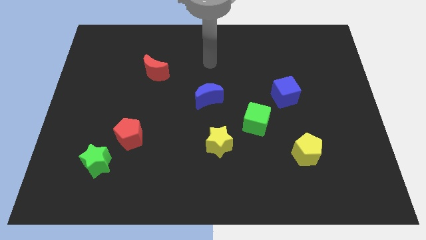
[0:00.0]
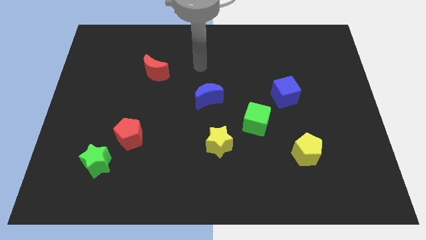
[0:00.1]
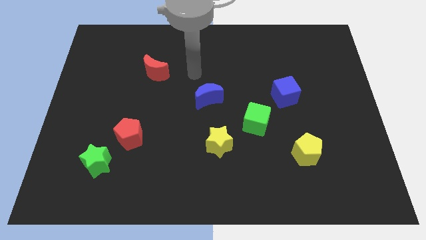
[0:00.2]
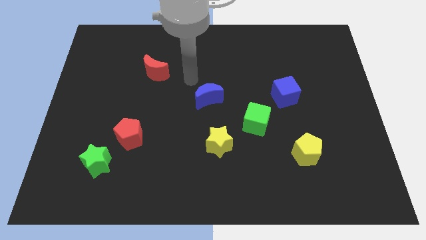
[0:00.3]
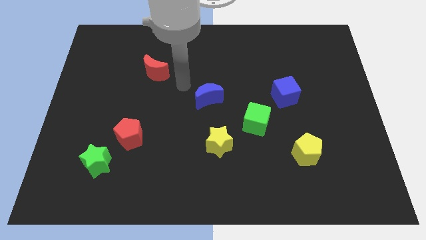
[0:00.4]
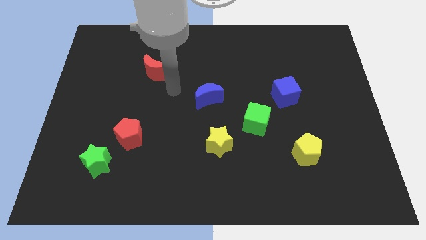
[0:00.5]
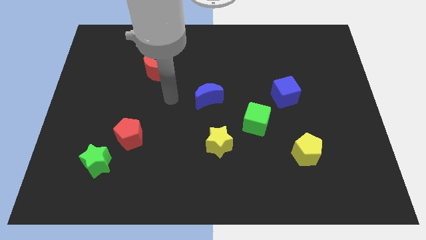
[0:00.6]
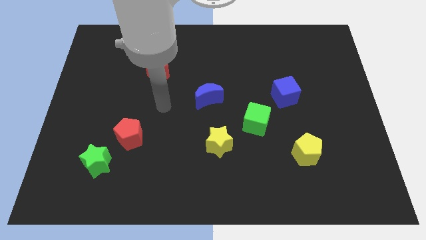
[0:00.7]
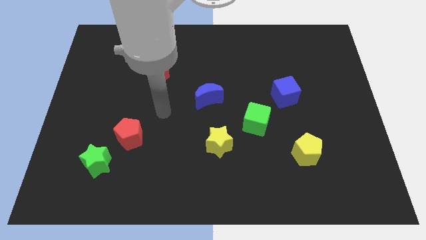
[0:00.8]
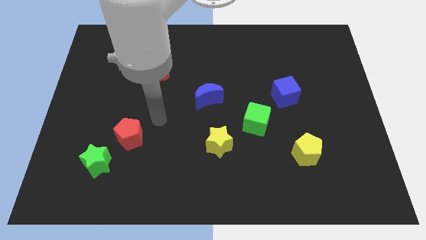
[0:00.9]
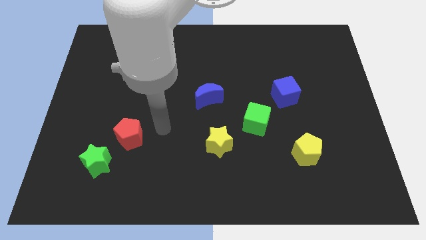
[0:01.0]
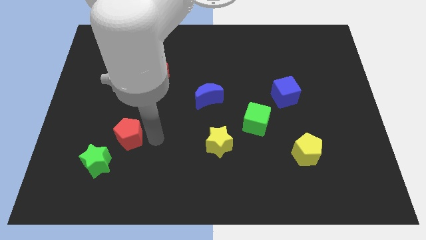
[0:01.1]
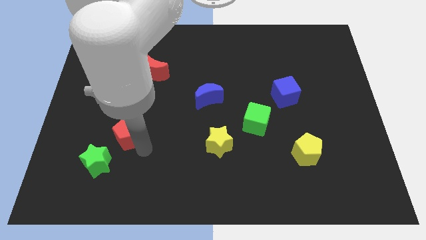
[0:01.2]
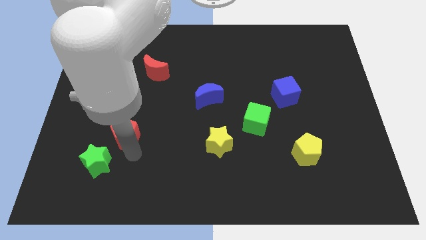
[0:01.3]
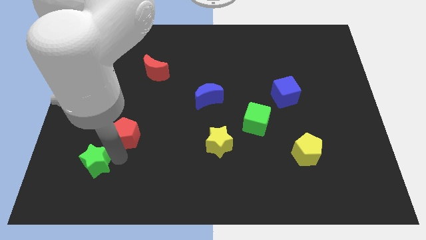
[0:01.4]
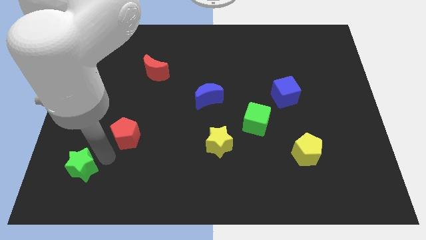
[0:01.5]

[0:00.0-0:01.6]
pull the red pentagon apart from the green star

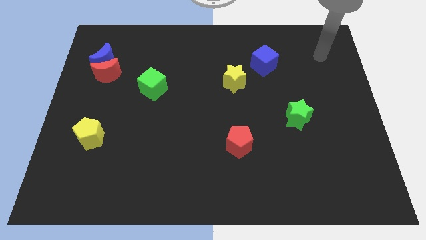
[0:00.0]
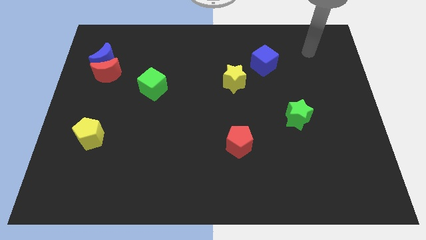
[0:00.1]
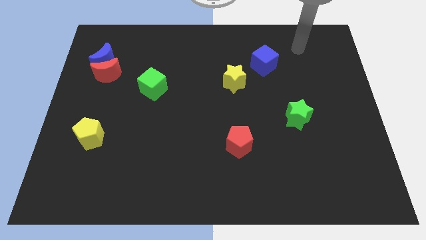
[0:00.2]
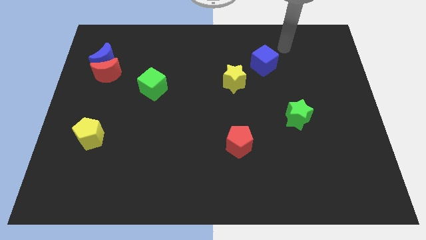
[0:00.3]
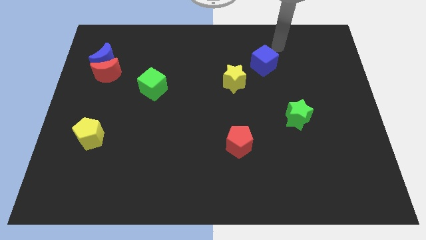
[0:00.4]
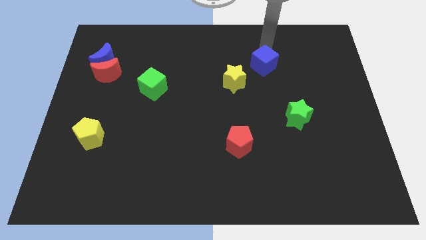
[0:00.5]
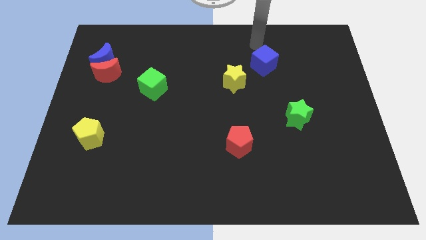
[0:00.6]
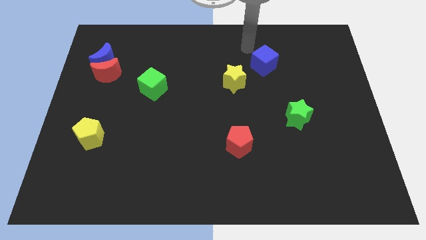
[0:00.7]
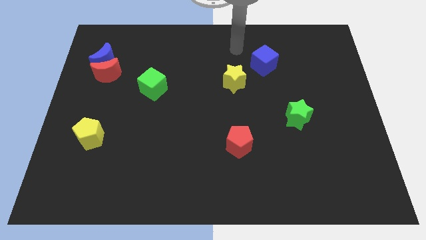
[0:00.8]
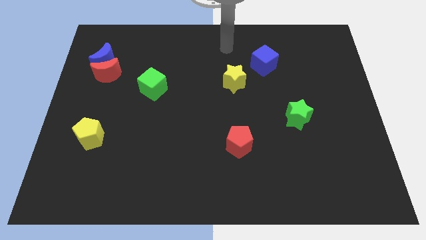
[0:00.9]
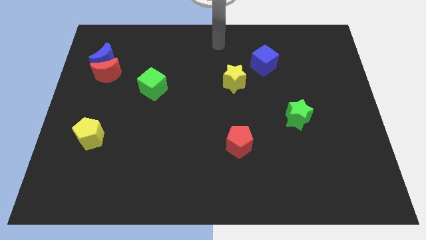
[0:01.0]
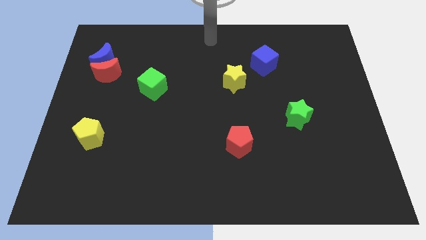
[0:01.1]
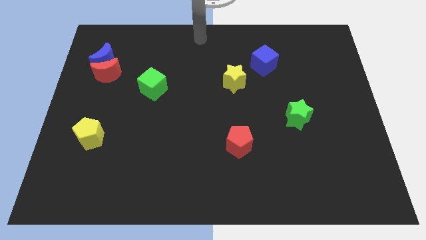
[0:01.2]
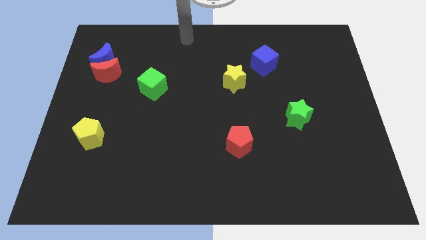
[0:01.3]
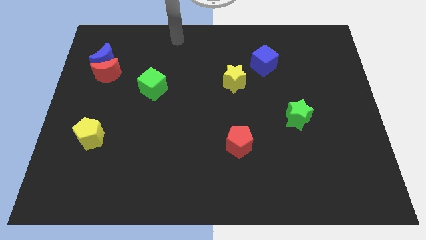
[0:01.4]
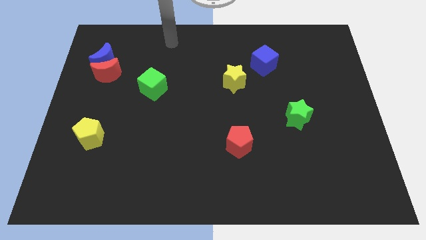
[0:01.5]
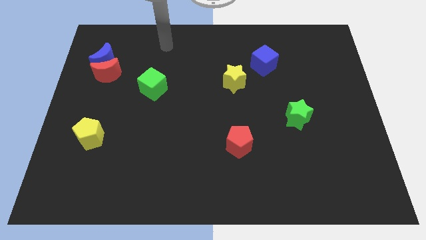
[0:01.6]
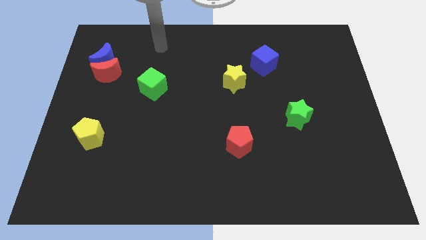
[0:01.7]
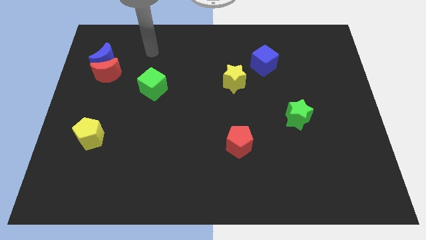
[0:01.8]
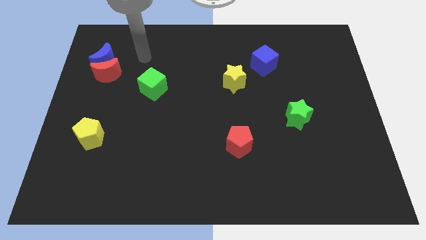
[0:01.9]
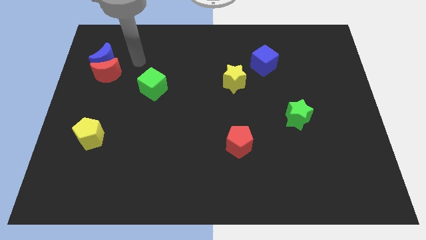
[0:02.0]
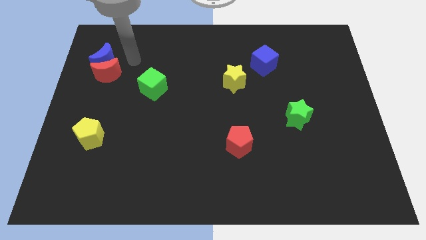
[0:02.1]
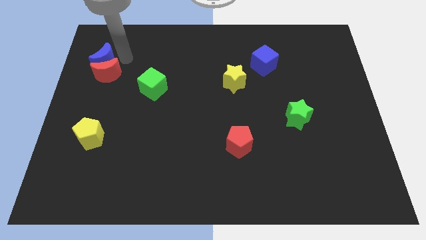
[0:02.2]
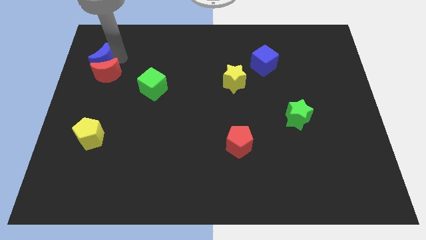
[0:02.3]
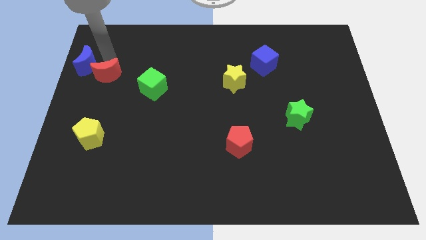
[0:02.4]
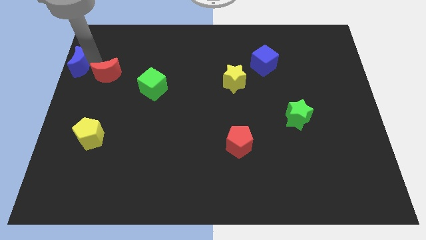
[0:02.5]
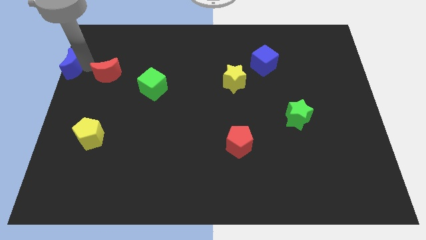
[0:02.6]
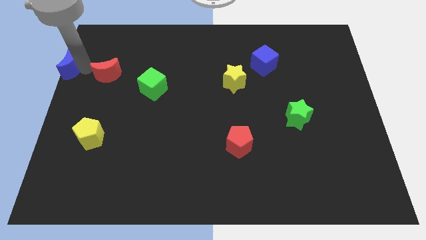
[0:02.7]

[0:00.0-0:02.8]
pull the red moon apart from the blue moon

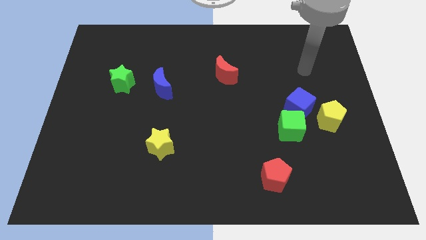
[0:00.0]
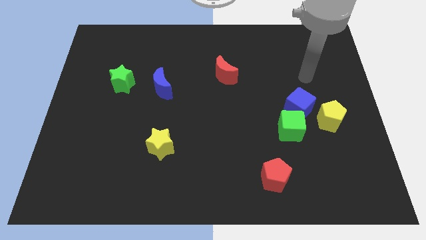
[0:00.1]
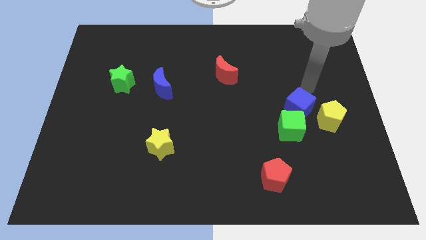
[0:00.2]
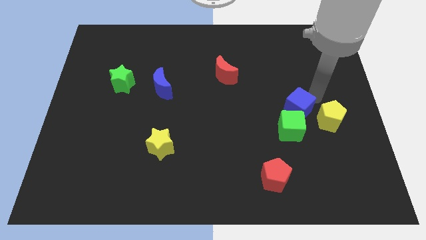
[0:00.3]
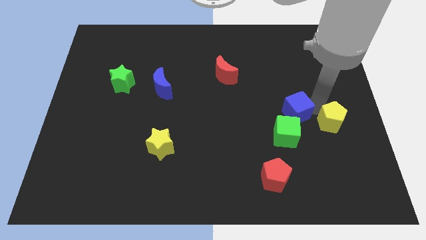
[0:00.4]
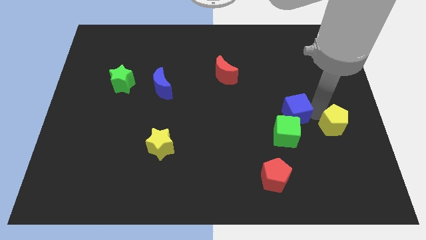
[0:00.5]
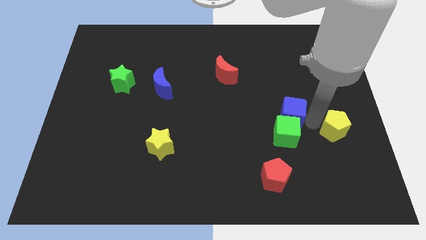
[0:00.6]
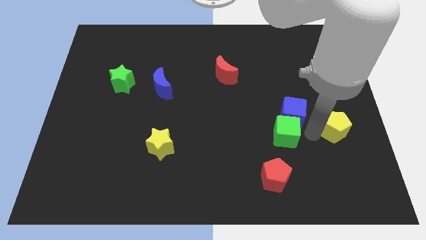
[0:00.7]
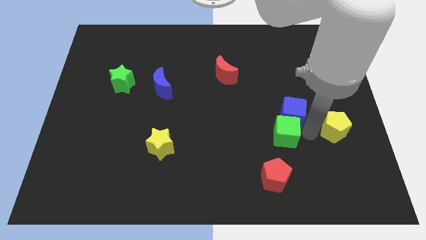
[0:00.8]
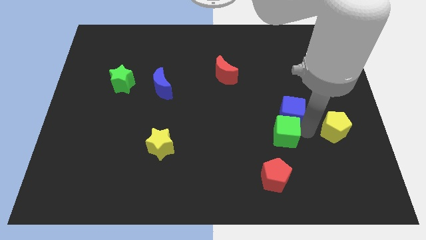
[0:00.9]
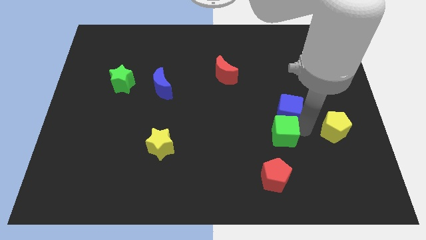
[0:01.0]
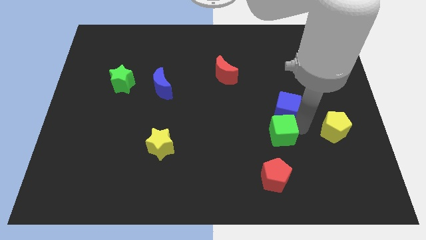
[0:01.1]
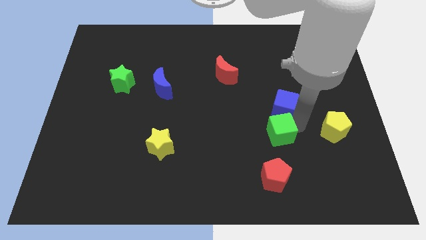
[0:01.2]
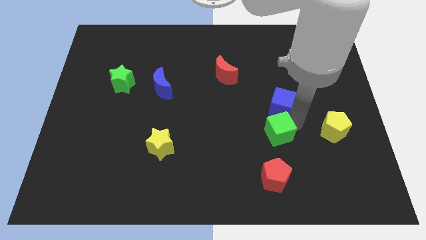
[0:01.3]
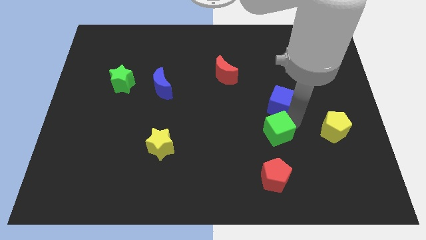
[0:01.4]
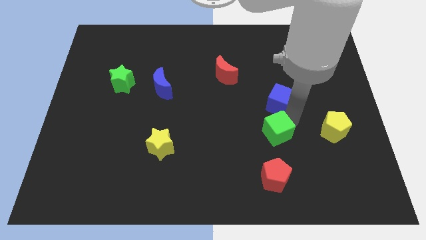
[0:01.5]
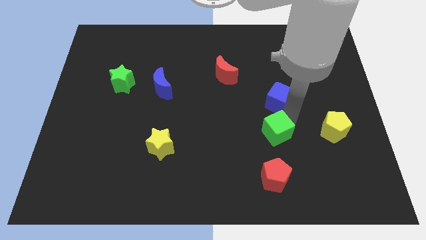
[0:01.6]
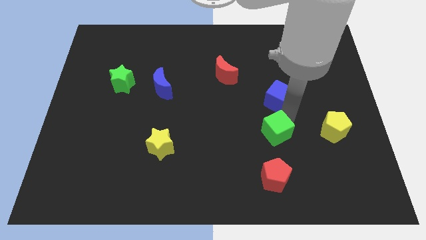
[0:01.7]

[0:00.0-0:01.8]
separate the blue cube from the green cube and yellow pentagon

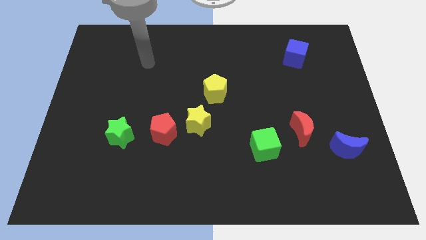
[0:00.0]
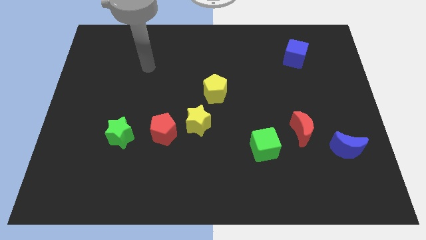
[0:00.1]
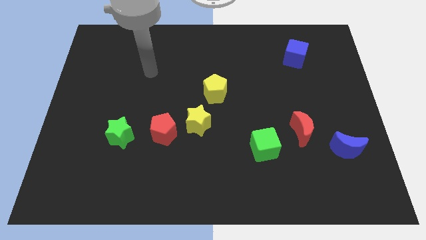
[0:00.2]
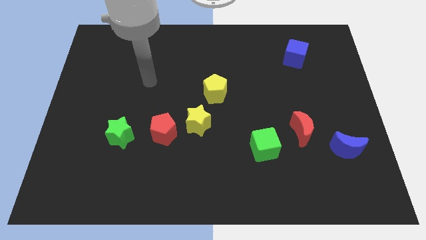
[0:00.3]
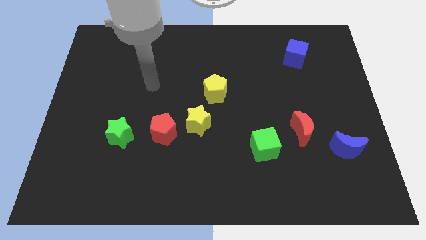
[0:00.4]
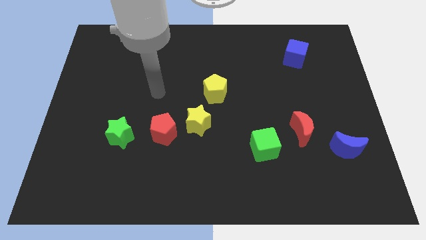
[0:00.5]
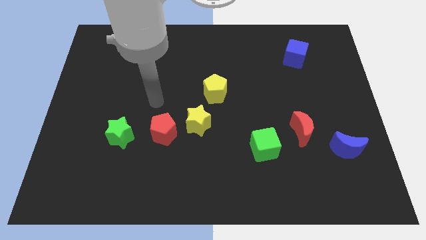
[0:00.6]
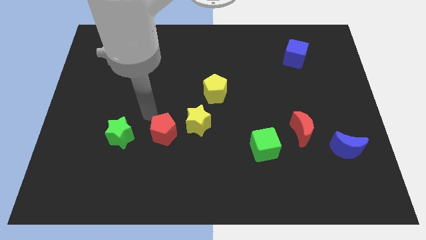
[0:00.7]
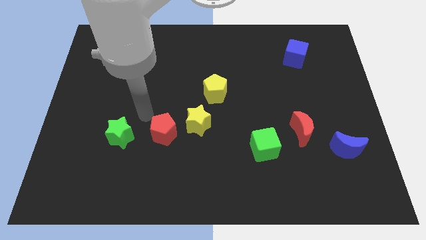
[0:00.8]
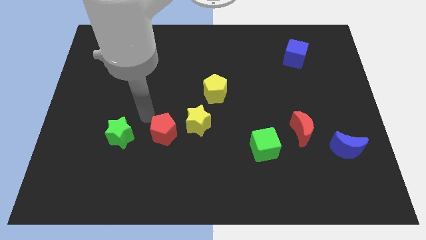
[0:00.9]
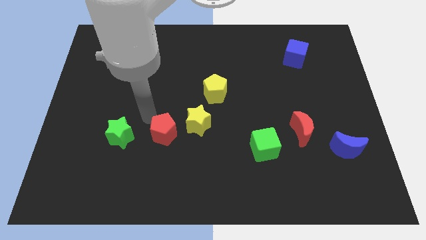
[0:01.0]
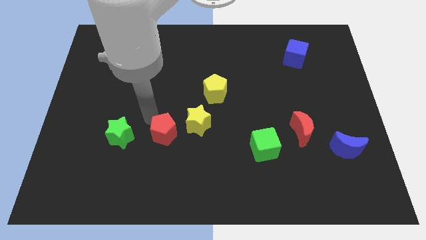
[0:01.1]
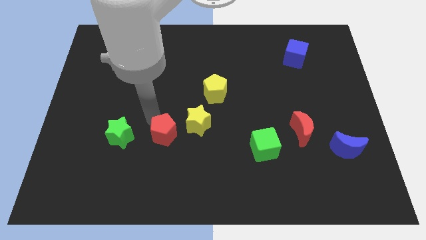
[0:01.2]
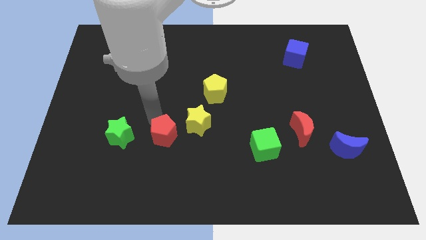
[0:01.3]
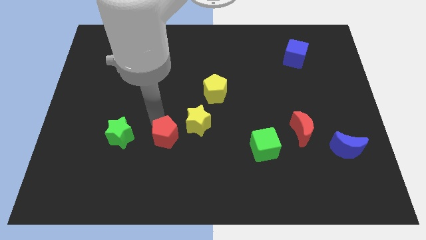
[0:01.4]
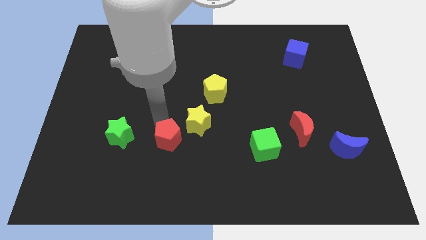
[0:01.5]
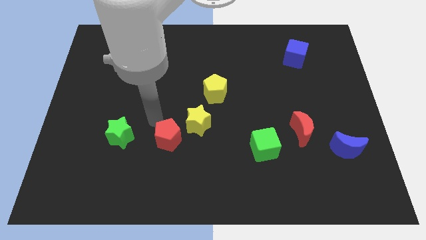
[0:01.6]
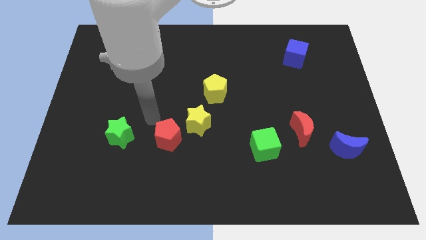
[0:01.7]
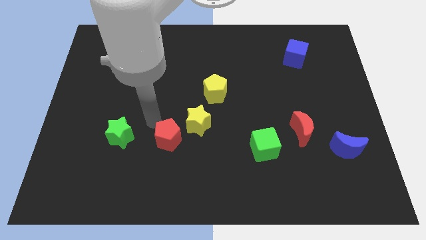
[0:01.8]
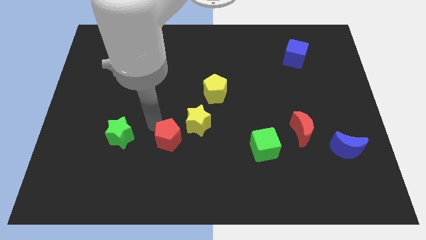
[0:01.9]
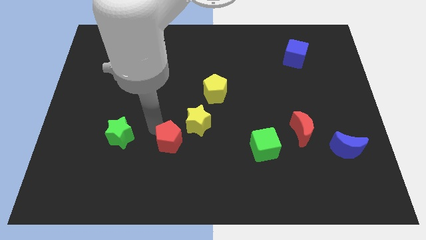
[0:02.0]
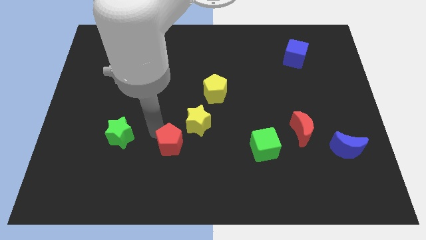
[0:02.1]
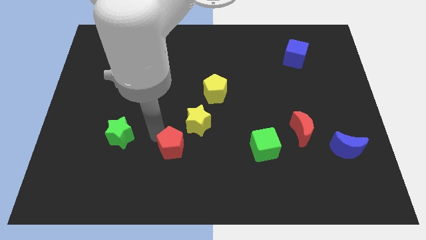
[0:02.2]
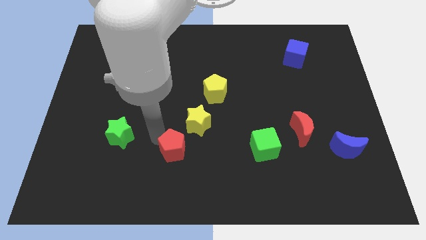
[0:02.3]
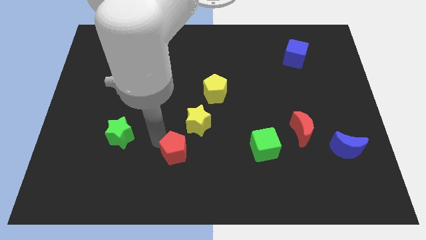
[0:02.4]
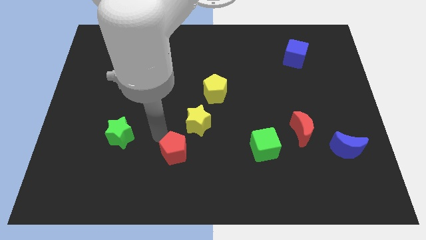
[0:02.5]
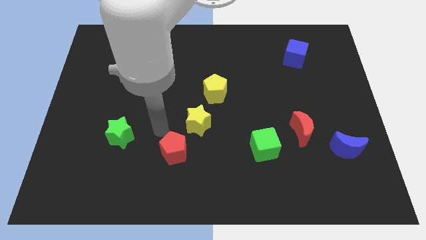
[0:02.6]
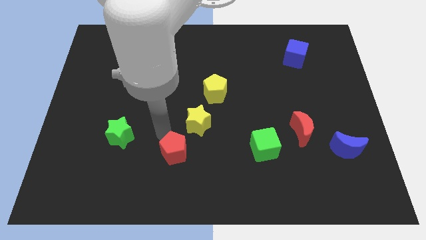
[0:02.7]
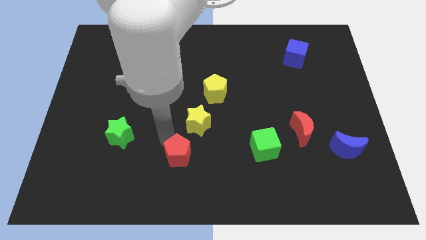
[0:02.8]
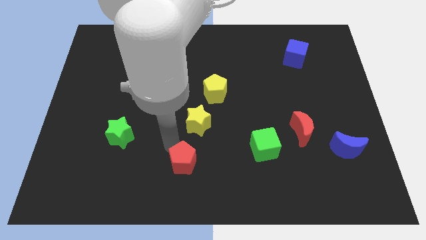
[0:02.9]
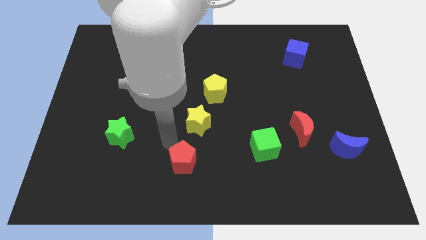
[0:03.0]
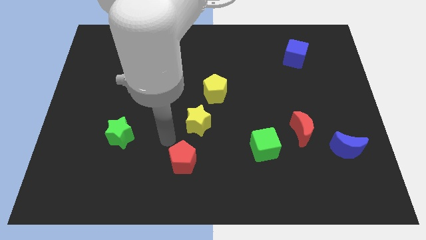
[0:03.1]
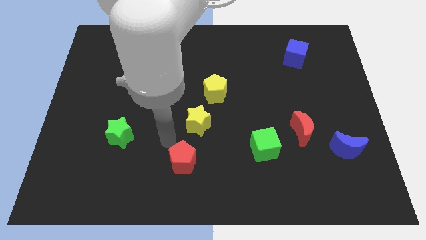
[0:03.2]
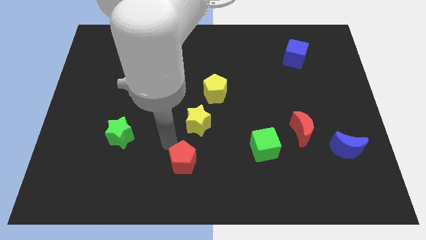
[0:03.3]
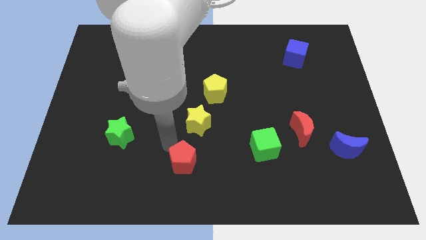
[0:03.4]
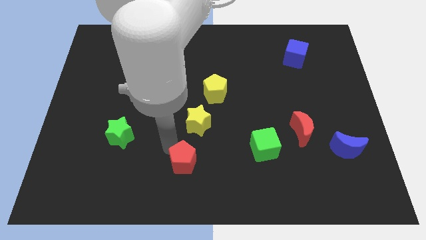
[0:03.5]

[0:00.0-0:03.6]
move the red pentagon away from the yellow star and green star
